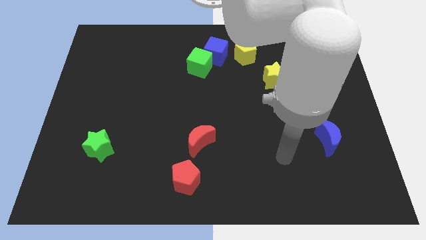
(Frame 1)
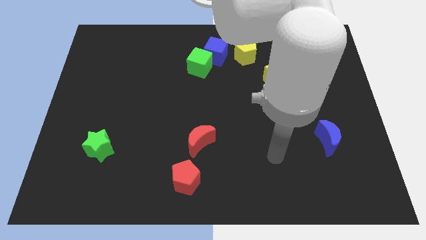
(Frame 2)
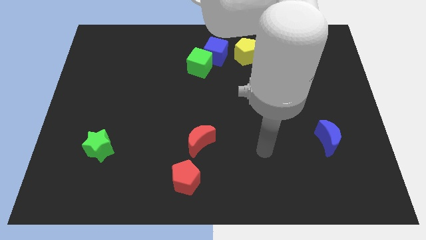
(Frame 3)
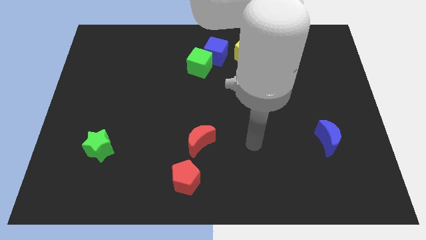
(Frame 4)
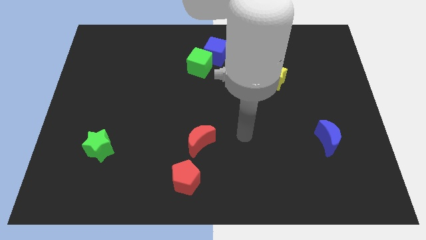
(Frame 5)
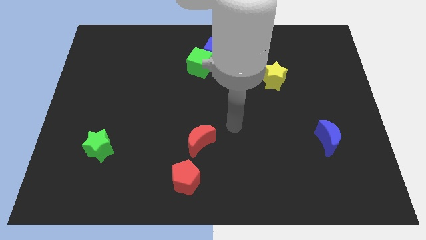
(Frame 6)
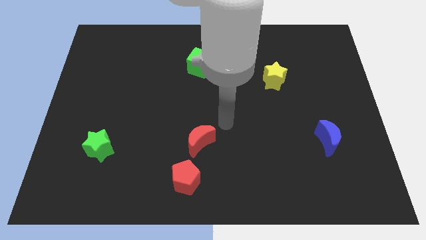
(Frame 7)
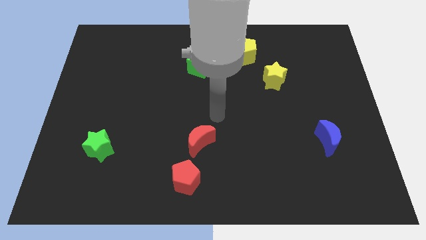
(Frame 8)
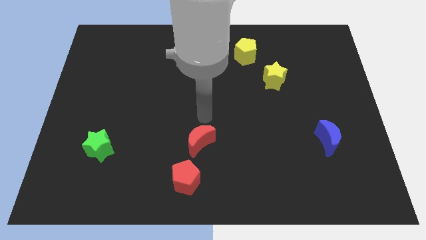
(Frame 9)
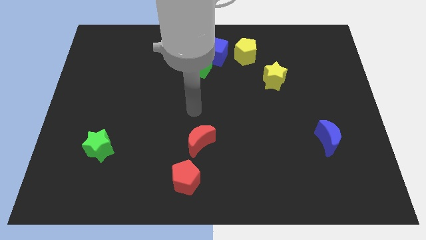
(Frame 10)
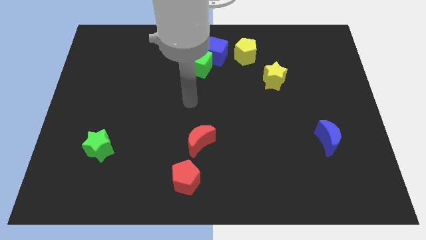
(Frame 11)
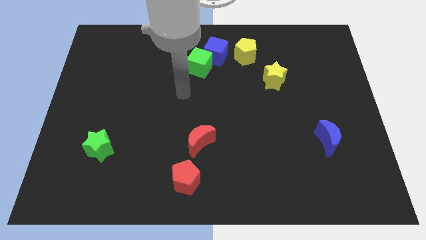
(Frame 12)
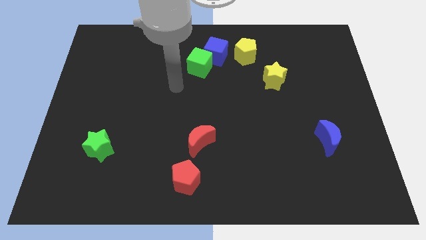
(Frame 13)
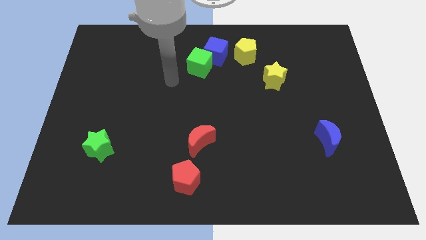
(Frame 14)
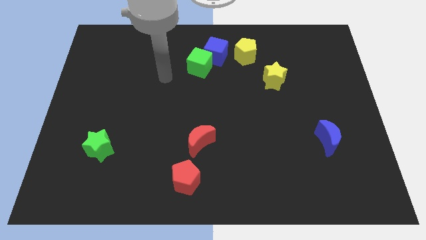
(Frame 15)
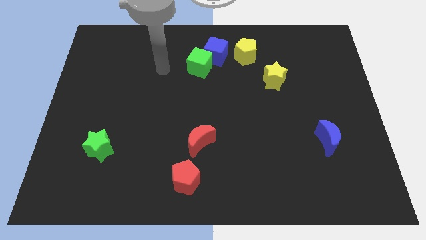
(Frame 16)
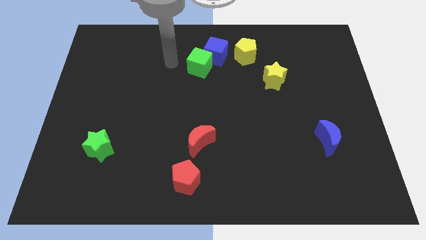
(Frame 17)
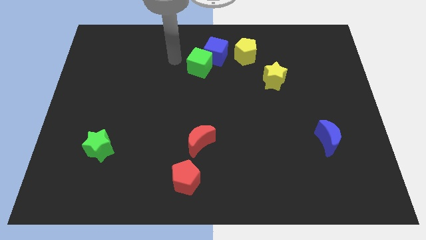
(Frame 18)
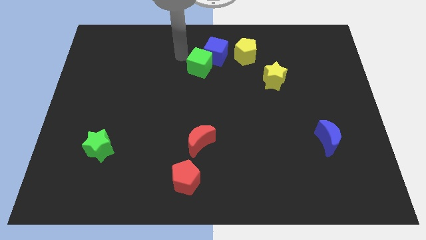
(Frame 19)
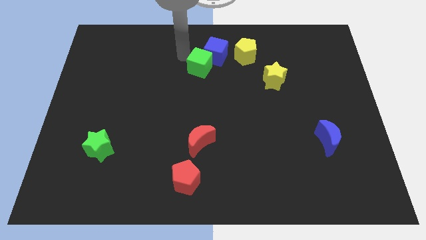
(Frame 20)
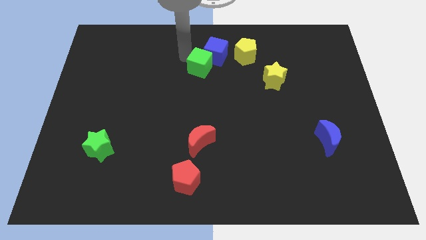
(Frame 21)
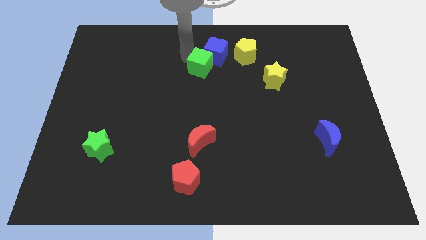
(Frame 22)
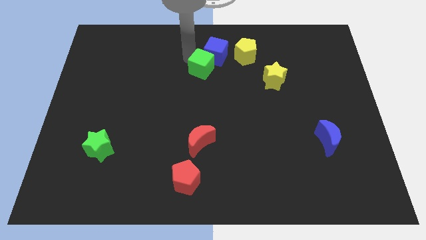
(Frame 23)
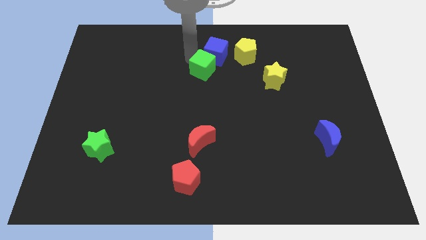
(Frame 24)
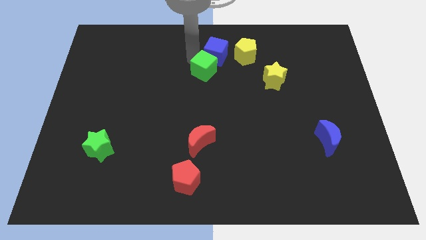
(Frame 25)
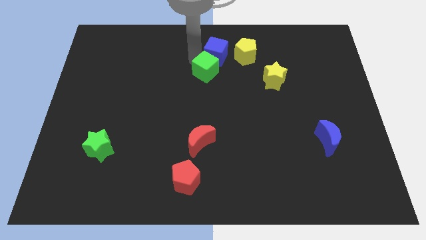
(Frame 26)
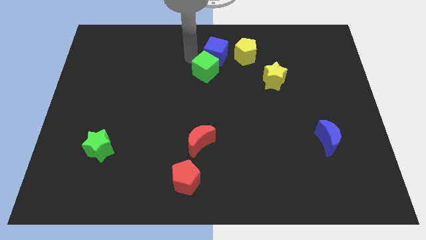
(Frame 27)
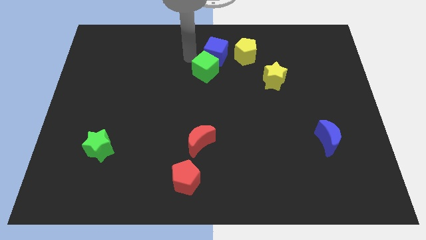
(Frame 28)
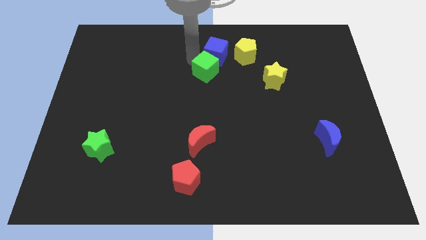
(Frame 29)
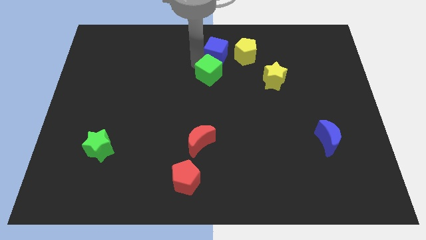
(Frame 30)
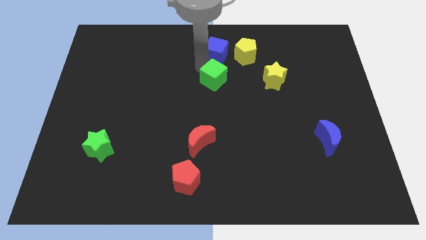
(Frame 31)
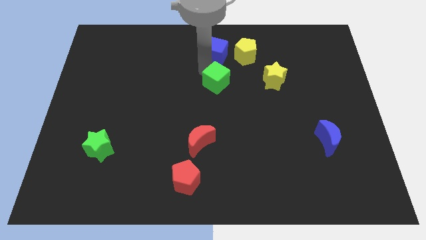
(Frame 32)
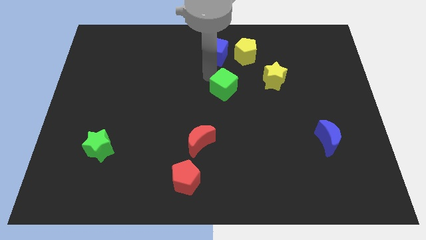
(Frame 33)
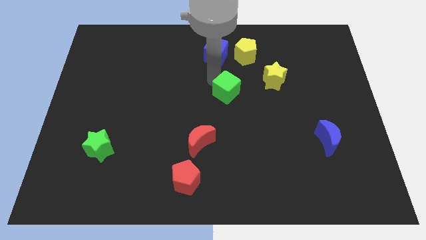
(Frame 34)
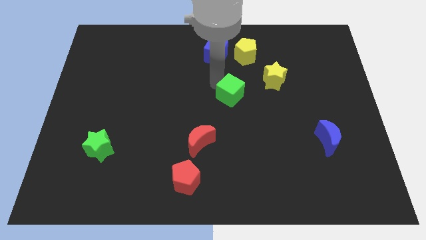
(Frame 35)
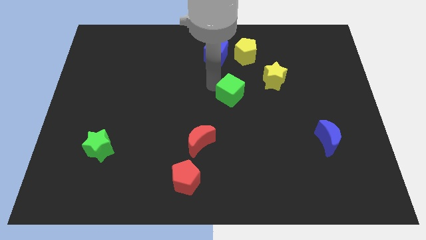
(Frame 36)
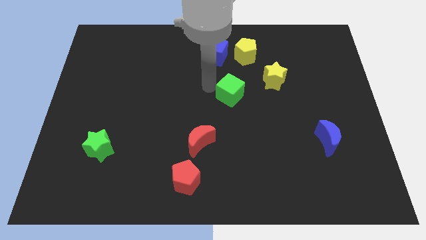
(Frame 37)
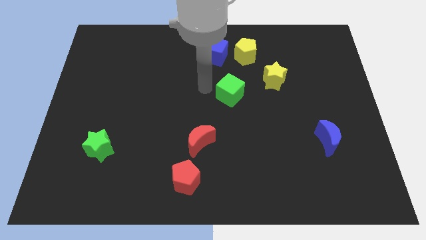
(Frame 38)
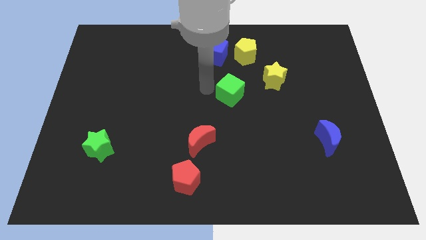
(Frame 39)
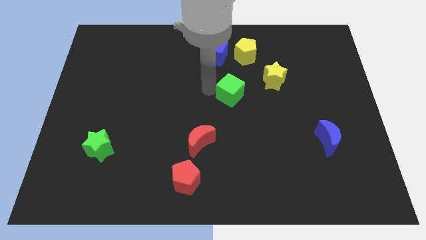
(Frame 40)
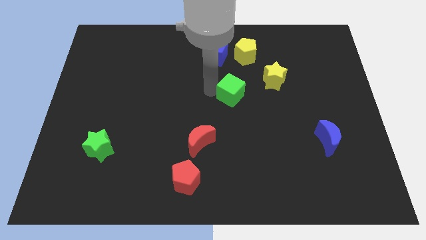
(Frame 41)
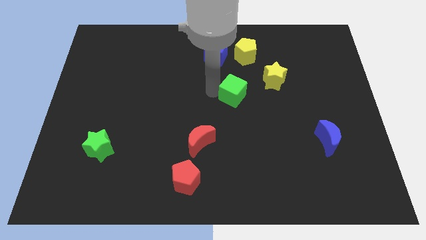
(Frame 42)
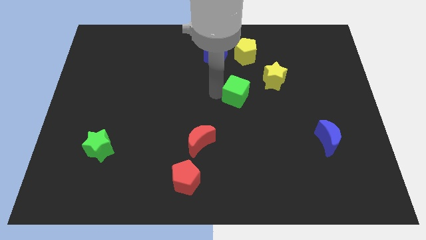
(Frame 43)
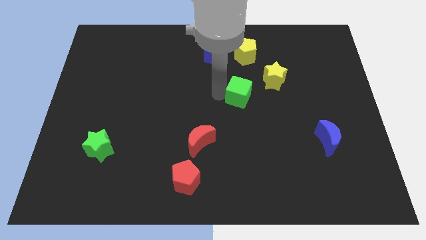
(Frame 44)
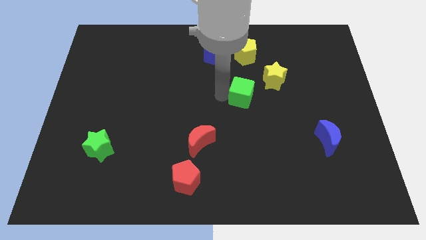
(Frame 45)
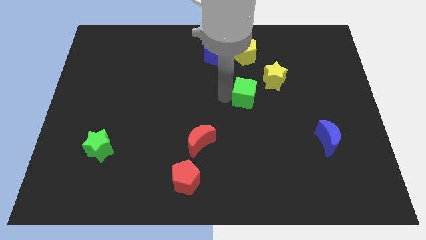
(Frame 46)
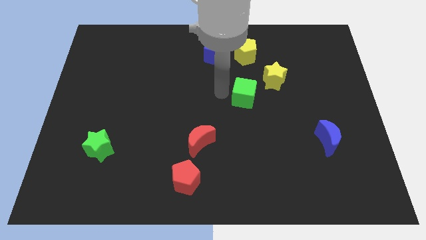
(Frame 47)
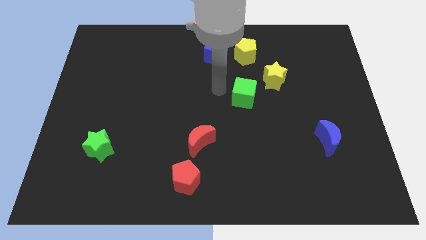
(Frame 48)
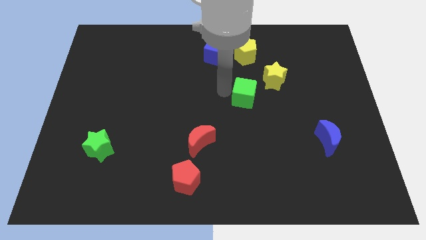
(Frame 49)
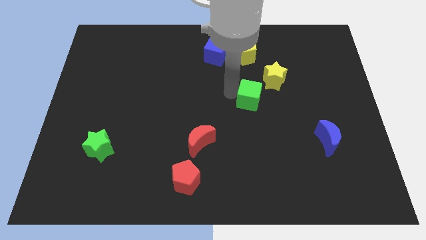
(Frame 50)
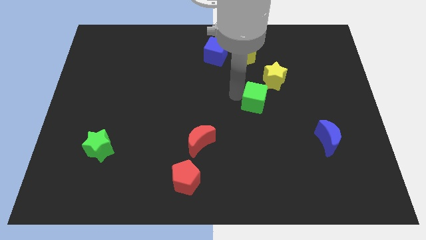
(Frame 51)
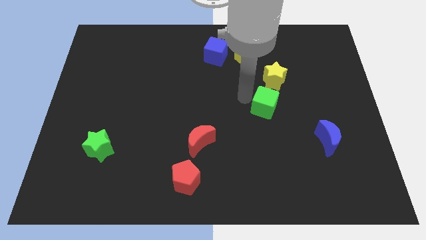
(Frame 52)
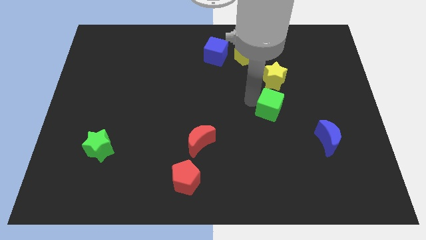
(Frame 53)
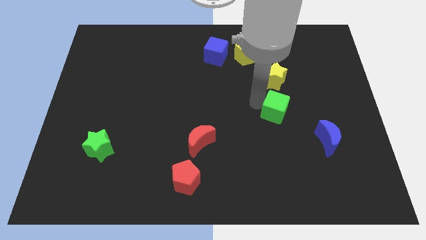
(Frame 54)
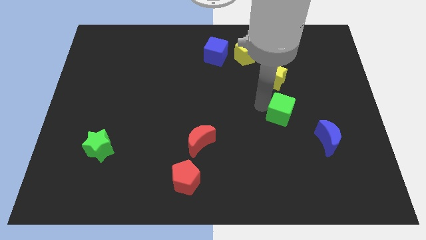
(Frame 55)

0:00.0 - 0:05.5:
push the green cube to the top left side of the blue moon
